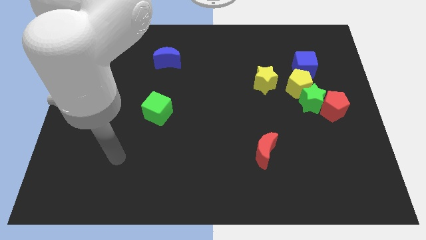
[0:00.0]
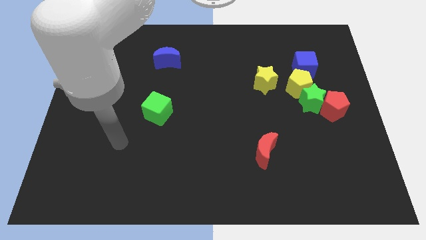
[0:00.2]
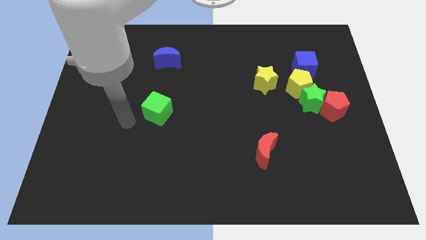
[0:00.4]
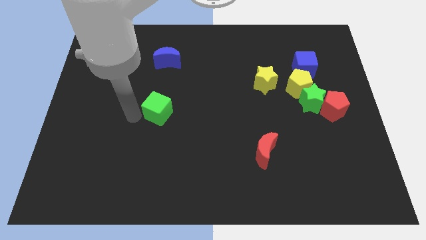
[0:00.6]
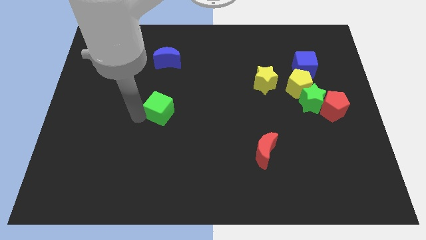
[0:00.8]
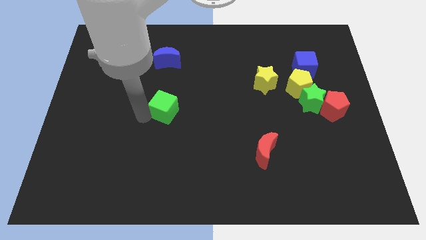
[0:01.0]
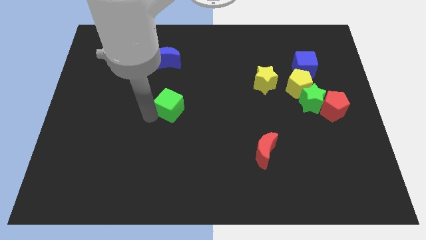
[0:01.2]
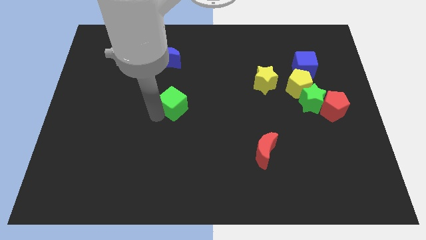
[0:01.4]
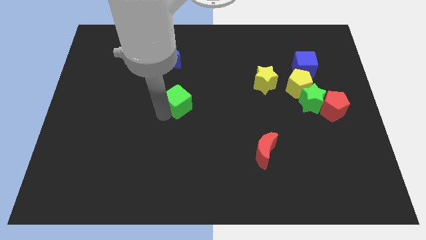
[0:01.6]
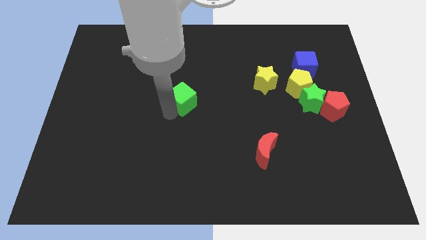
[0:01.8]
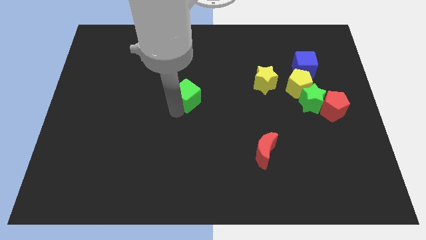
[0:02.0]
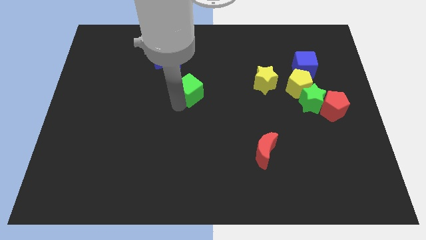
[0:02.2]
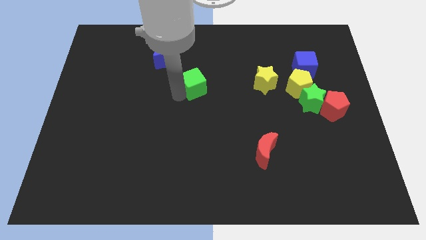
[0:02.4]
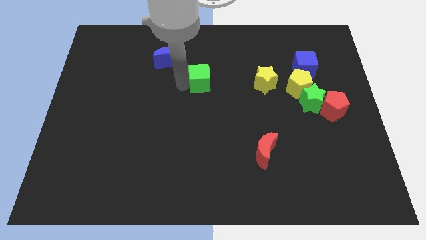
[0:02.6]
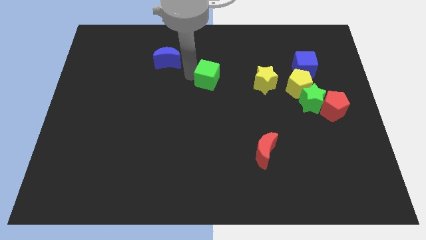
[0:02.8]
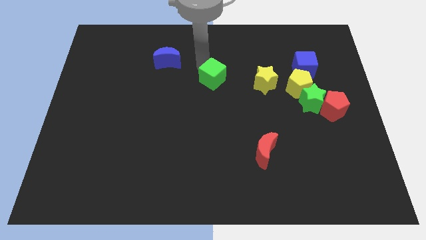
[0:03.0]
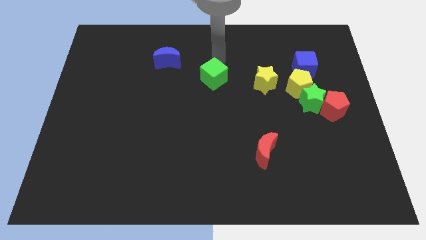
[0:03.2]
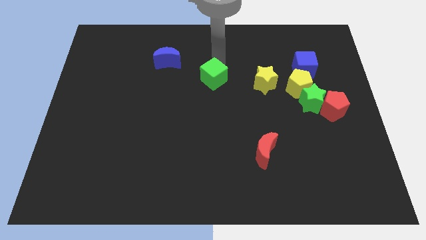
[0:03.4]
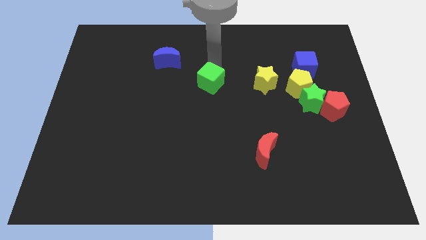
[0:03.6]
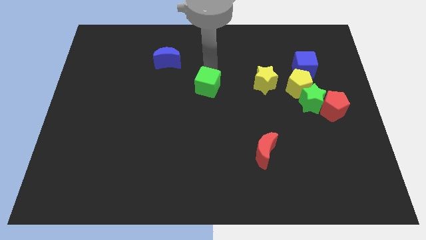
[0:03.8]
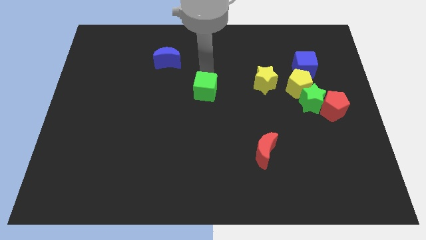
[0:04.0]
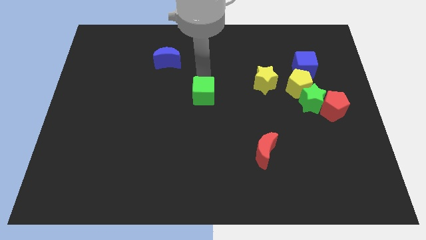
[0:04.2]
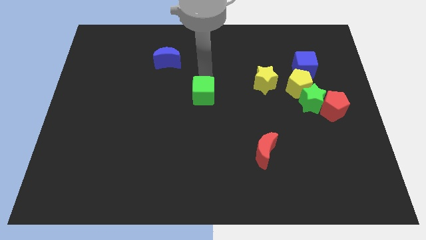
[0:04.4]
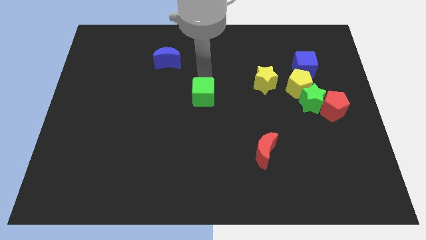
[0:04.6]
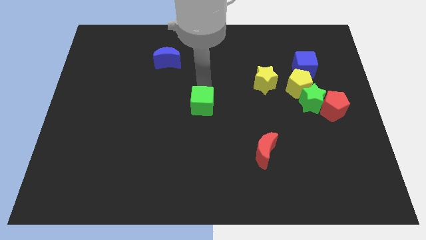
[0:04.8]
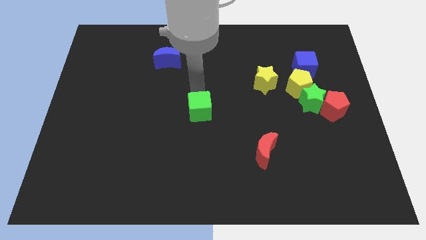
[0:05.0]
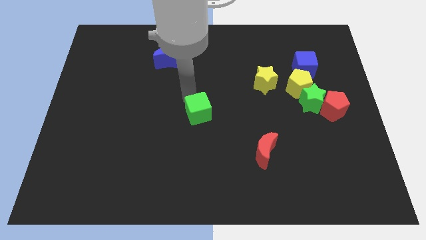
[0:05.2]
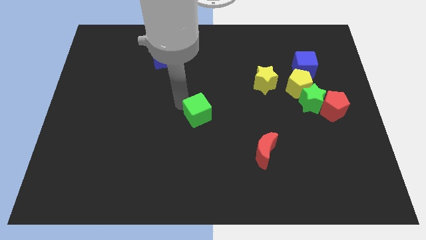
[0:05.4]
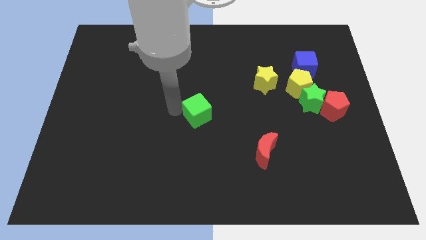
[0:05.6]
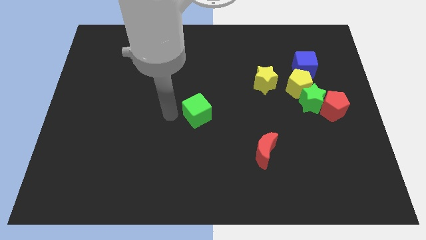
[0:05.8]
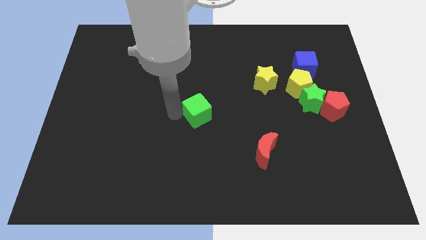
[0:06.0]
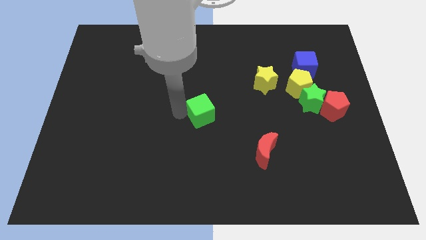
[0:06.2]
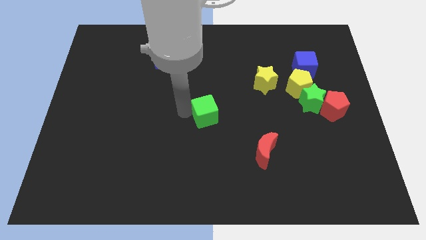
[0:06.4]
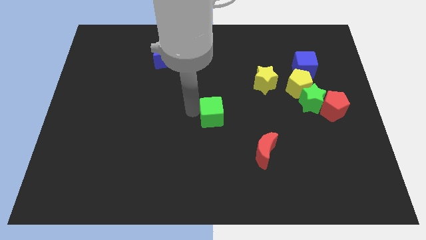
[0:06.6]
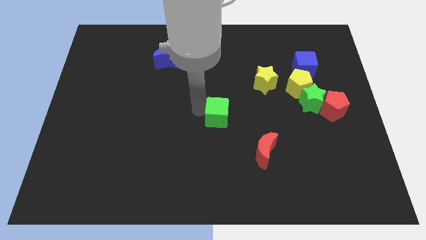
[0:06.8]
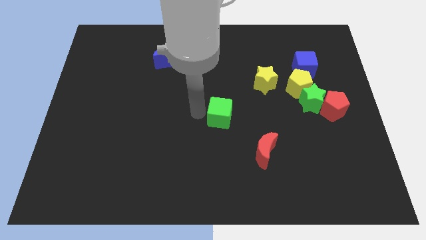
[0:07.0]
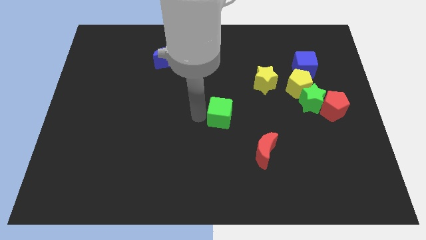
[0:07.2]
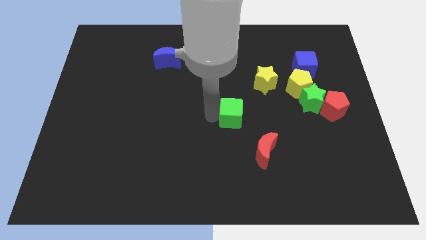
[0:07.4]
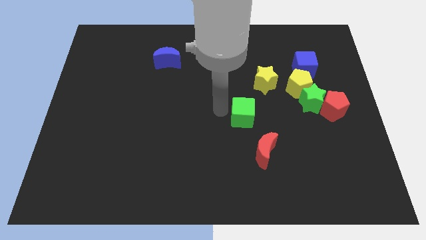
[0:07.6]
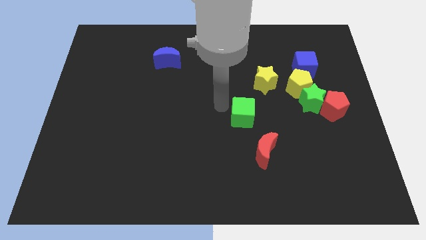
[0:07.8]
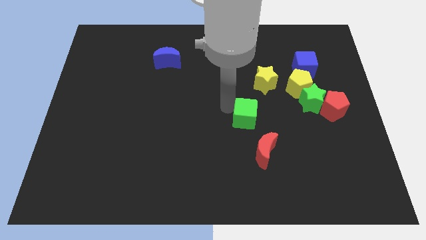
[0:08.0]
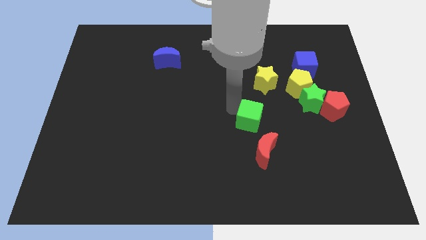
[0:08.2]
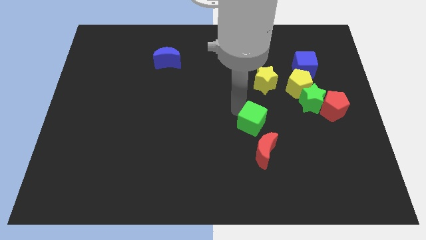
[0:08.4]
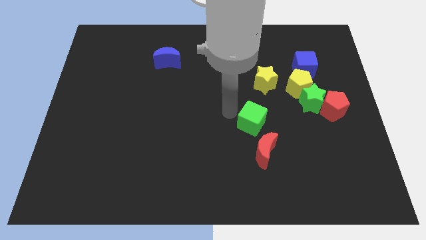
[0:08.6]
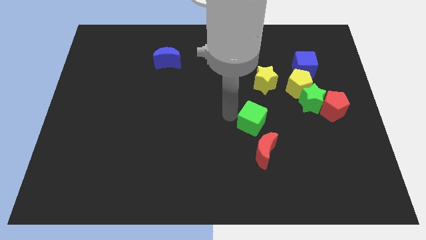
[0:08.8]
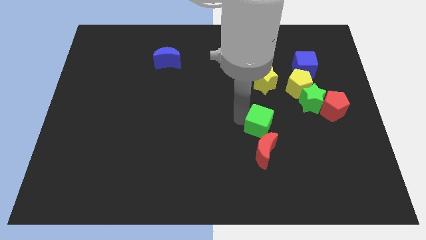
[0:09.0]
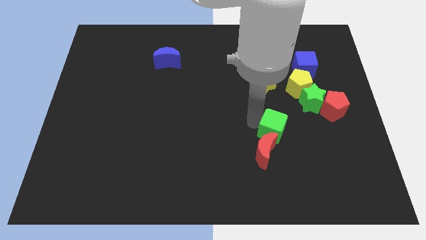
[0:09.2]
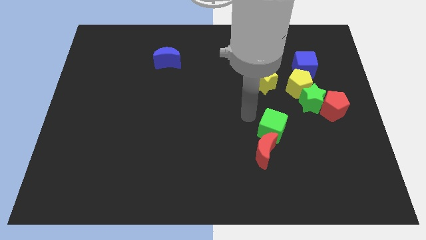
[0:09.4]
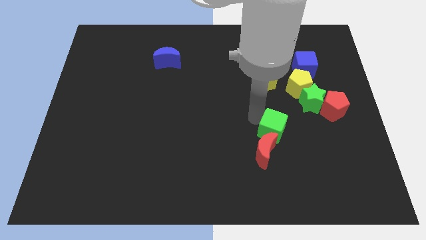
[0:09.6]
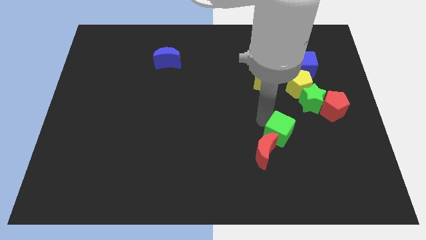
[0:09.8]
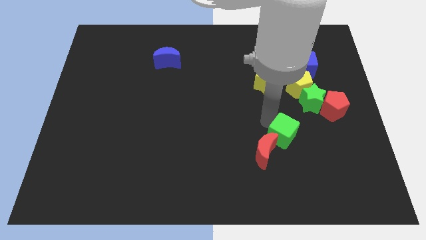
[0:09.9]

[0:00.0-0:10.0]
move the green cube just right of the red moon

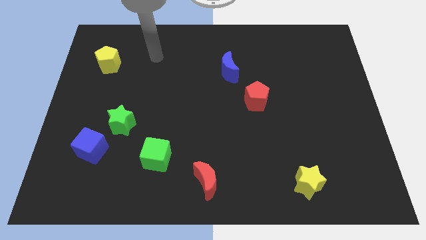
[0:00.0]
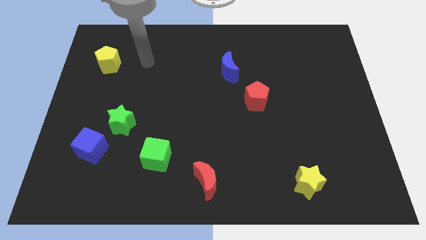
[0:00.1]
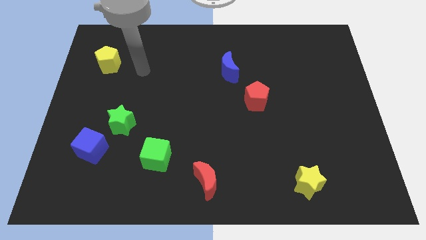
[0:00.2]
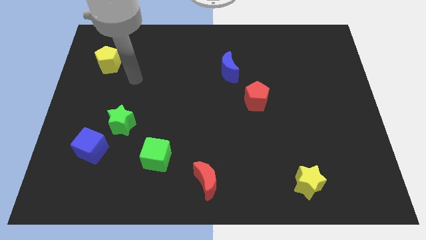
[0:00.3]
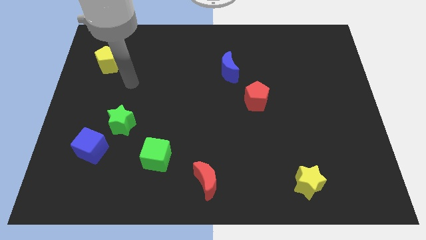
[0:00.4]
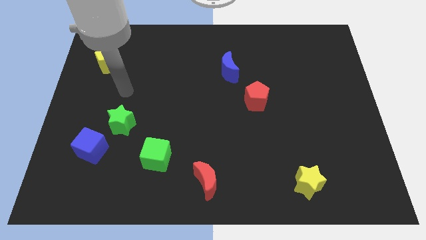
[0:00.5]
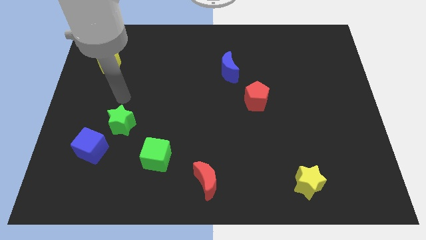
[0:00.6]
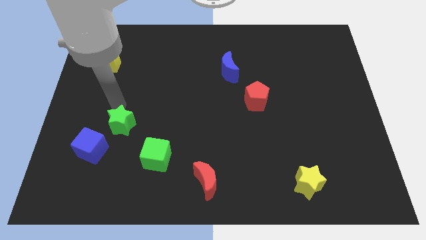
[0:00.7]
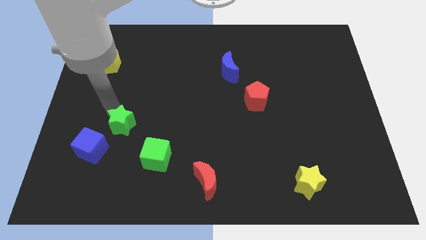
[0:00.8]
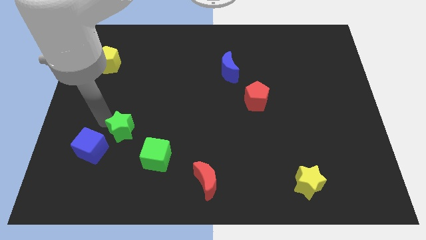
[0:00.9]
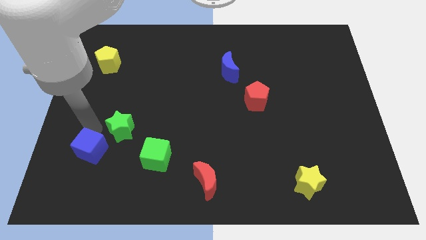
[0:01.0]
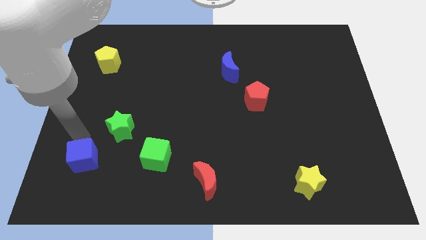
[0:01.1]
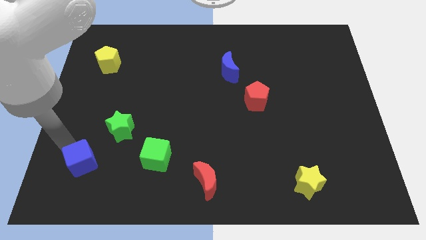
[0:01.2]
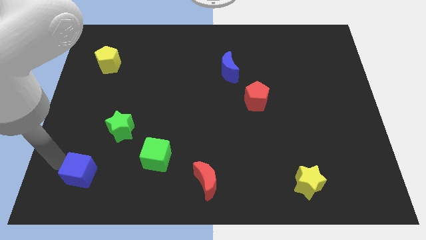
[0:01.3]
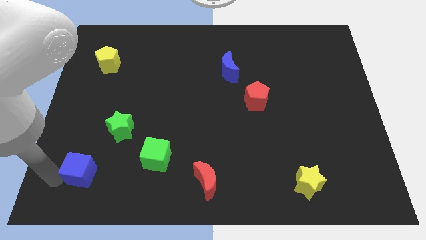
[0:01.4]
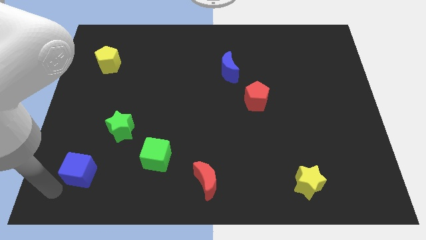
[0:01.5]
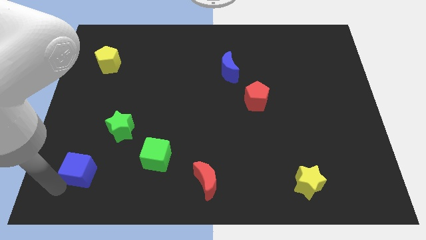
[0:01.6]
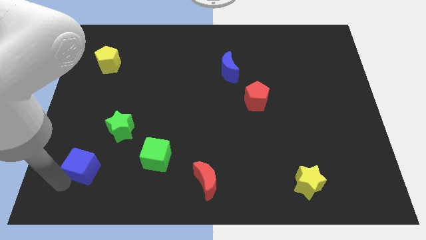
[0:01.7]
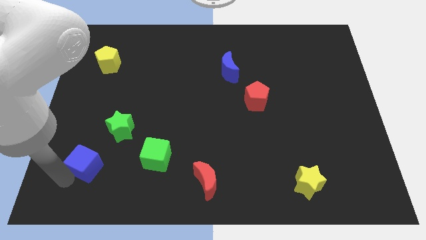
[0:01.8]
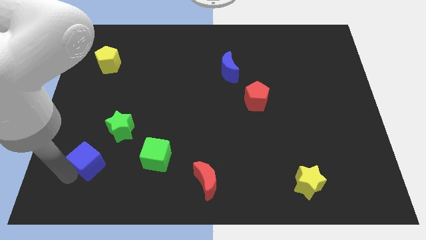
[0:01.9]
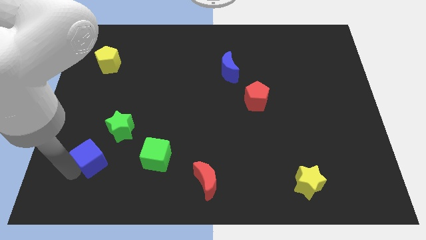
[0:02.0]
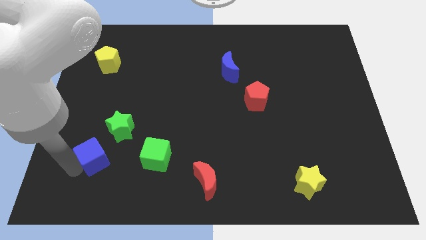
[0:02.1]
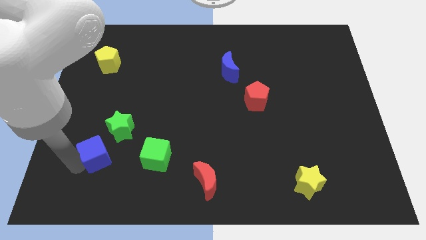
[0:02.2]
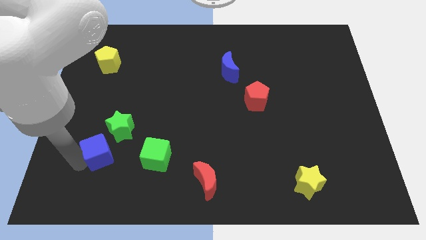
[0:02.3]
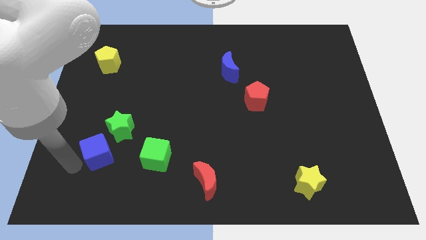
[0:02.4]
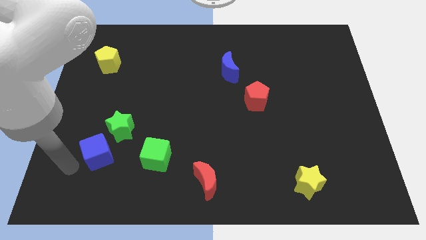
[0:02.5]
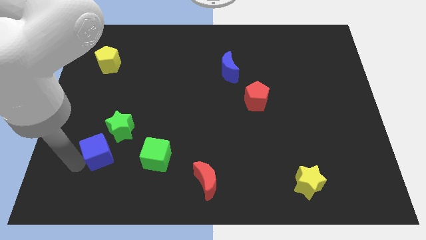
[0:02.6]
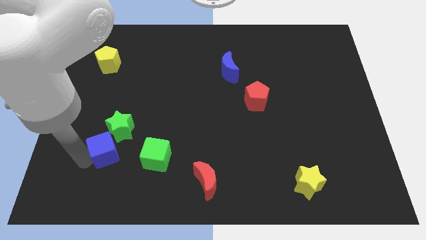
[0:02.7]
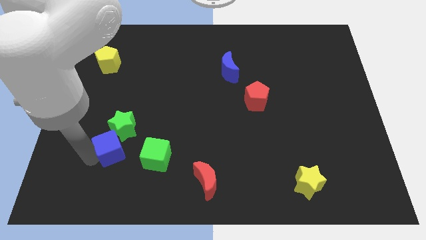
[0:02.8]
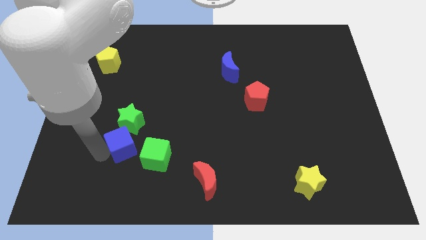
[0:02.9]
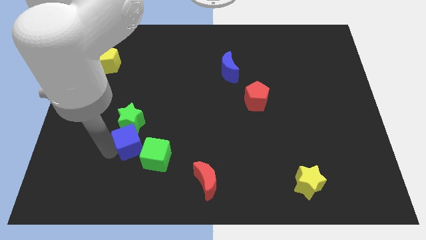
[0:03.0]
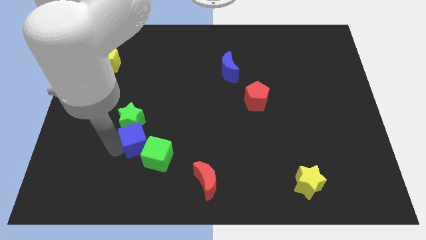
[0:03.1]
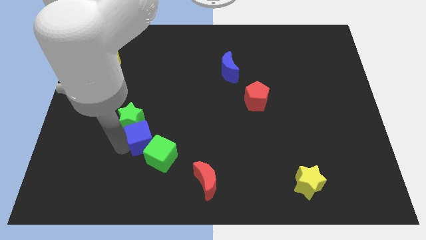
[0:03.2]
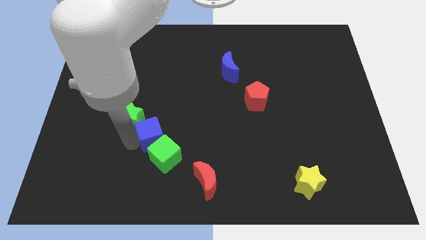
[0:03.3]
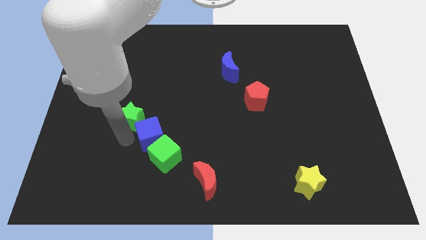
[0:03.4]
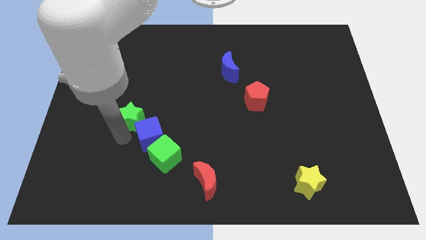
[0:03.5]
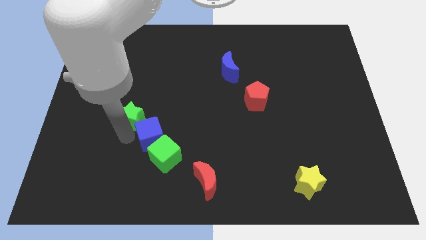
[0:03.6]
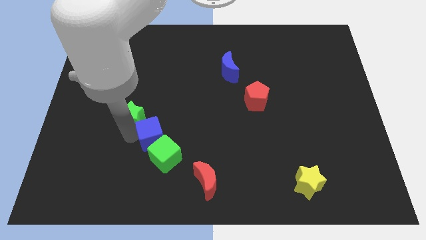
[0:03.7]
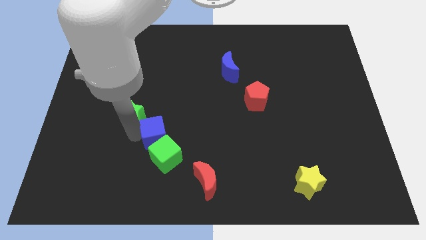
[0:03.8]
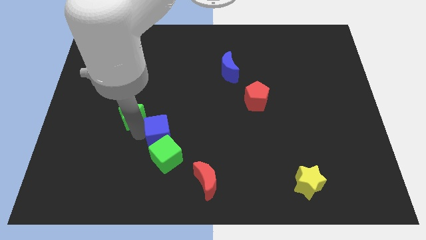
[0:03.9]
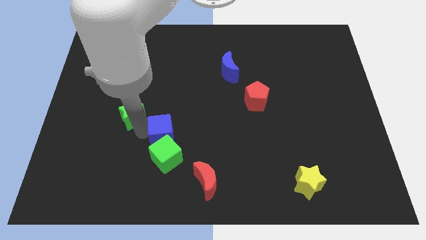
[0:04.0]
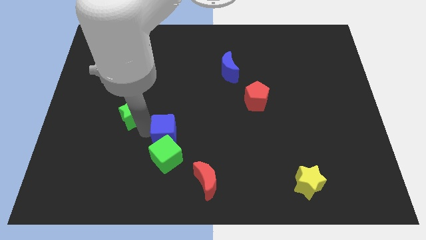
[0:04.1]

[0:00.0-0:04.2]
put the blue cube to the top right side of the green cube
